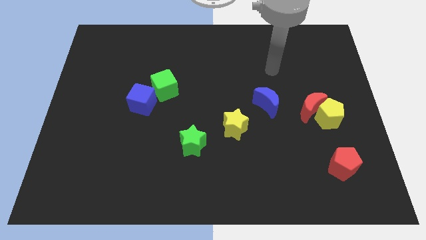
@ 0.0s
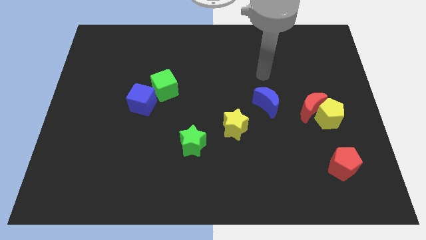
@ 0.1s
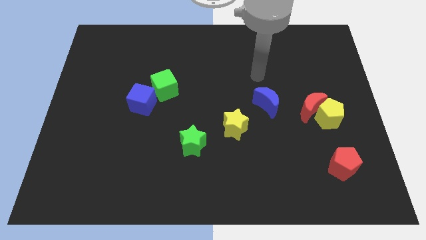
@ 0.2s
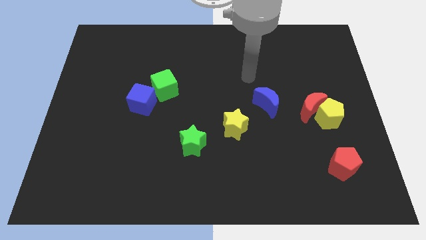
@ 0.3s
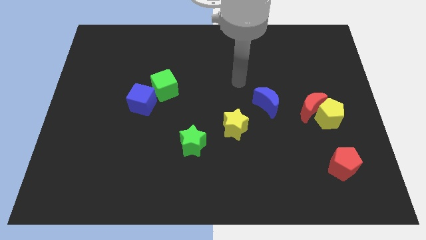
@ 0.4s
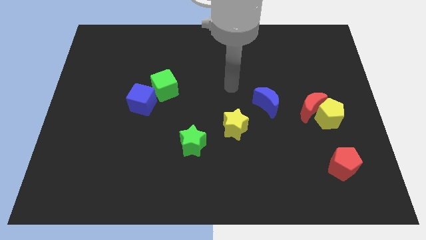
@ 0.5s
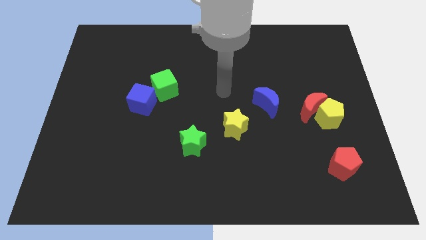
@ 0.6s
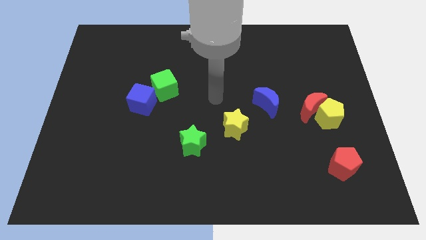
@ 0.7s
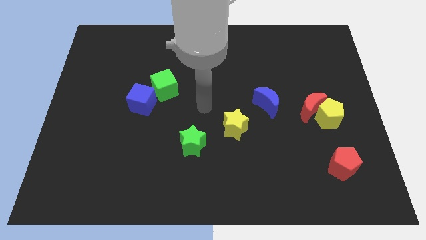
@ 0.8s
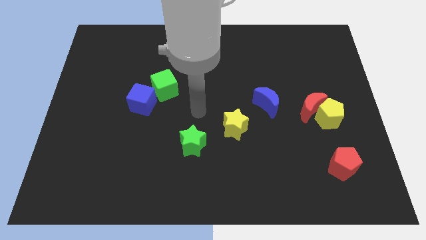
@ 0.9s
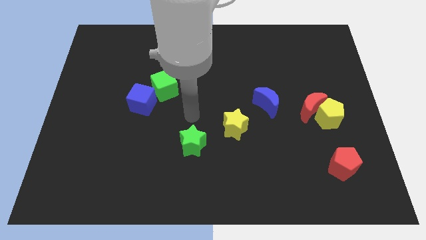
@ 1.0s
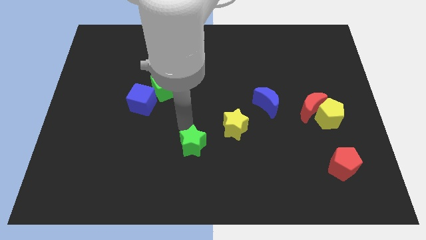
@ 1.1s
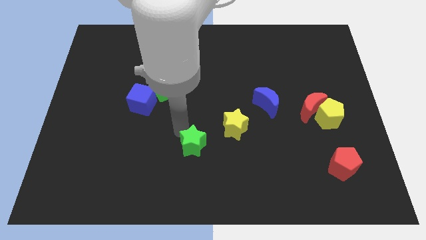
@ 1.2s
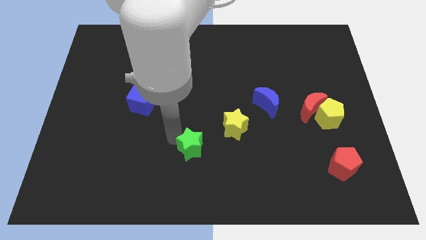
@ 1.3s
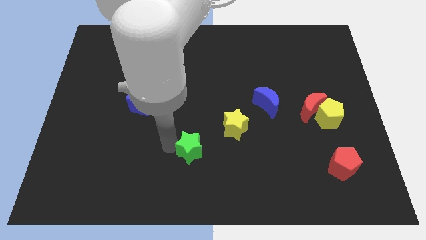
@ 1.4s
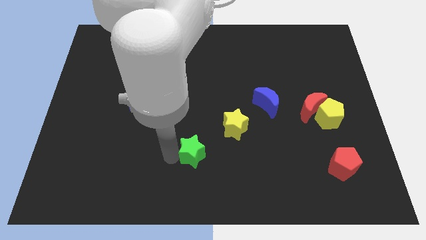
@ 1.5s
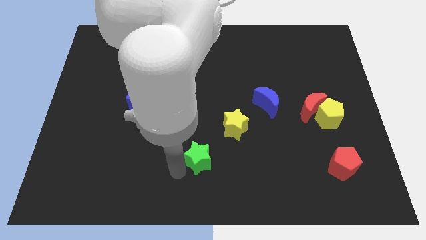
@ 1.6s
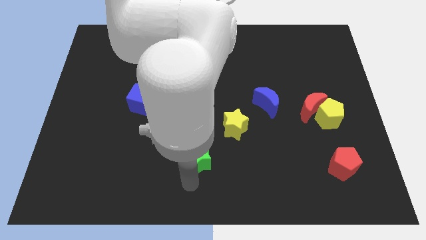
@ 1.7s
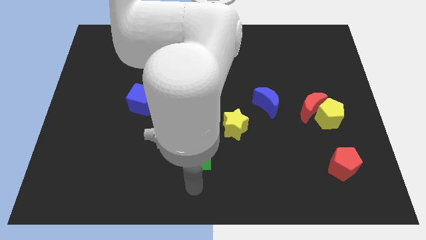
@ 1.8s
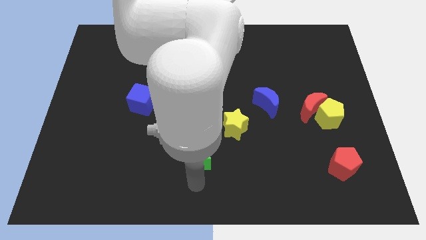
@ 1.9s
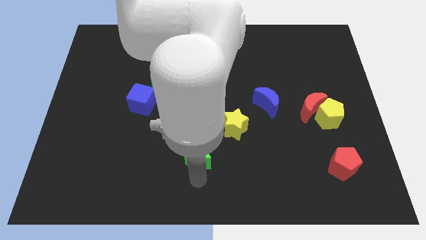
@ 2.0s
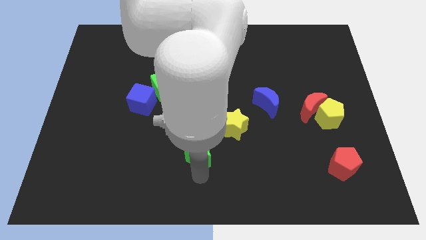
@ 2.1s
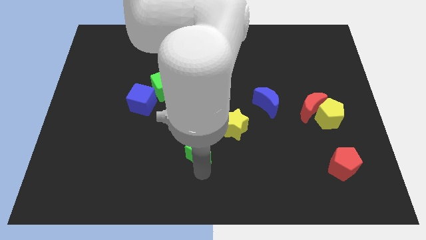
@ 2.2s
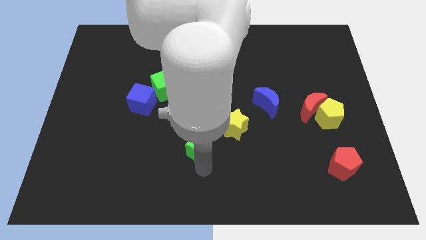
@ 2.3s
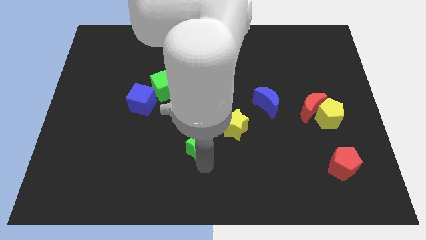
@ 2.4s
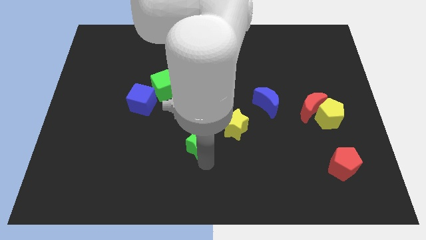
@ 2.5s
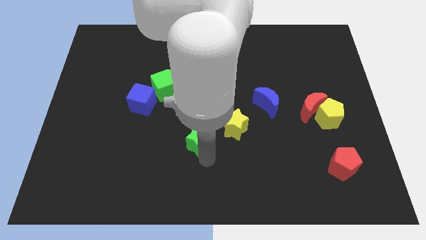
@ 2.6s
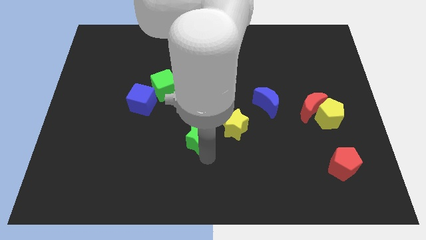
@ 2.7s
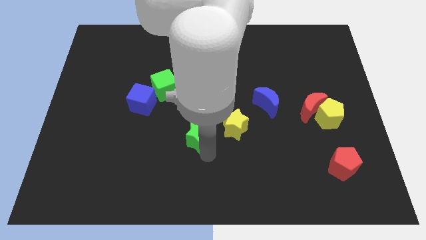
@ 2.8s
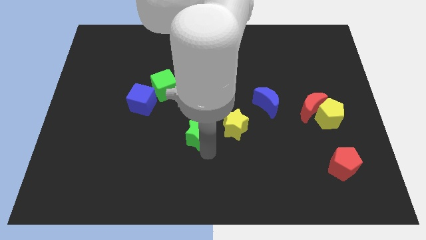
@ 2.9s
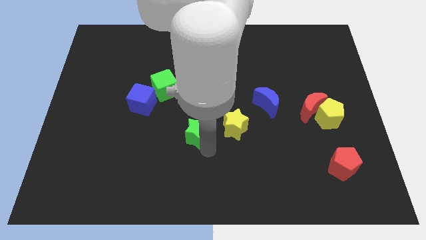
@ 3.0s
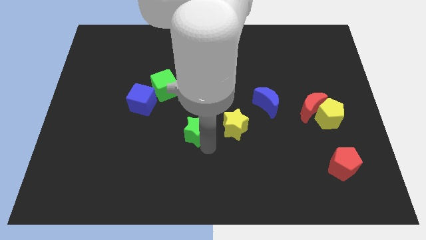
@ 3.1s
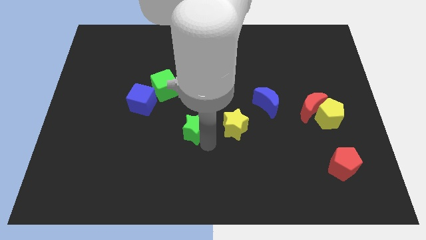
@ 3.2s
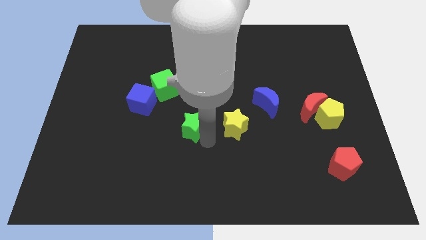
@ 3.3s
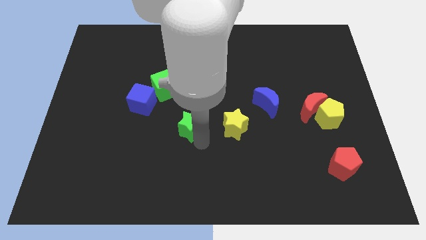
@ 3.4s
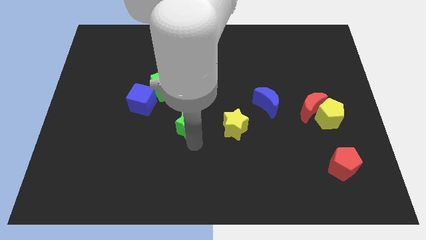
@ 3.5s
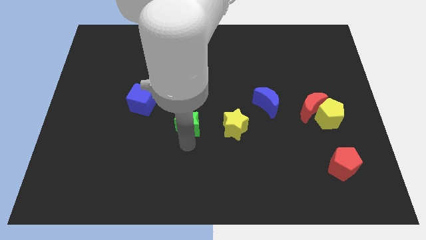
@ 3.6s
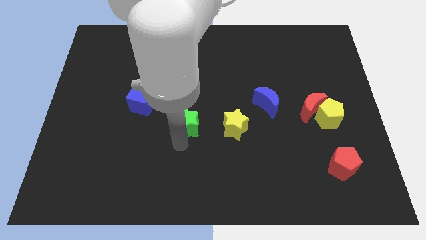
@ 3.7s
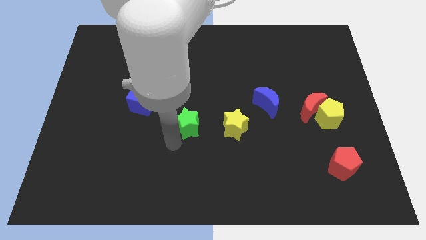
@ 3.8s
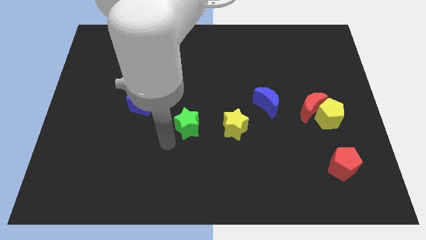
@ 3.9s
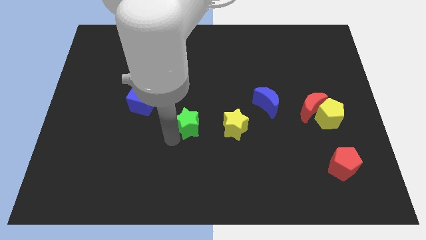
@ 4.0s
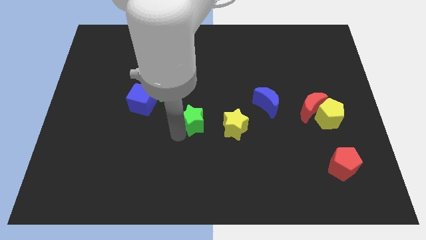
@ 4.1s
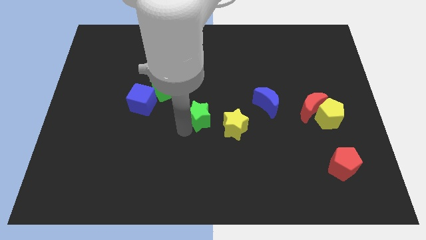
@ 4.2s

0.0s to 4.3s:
put the green star to the top left of the yellow star

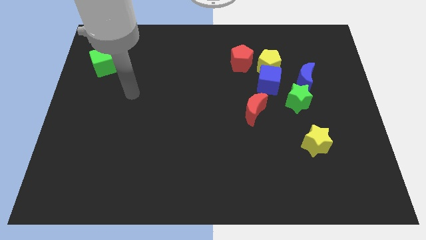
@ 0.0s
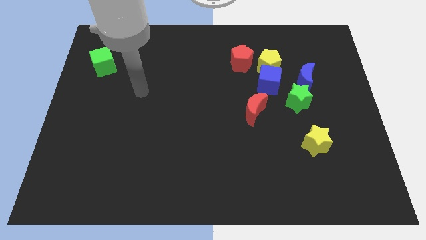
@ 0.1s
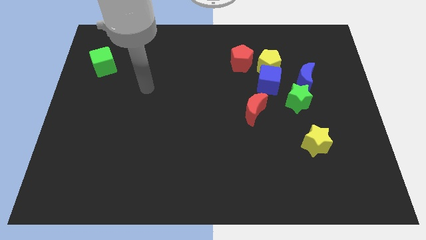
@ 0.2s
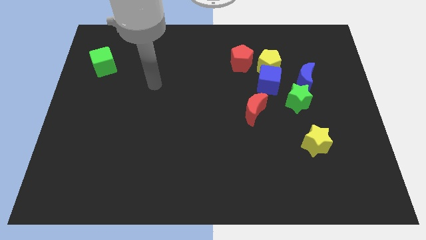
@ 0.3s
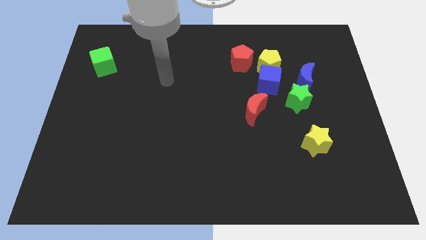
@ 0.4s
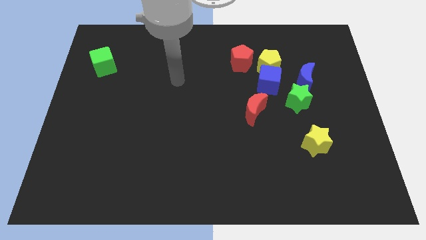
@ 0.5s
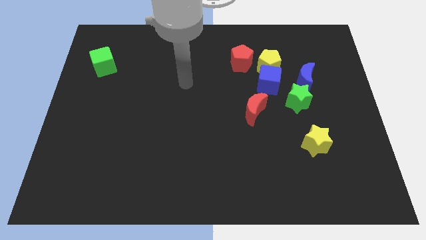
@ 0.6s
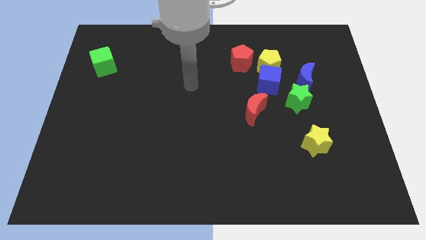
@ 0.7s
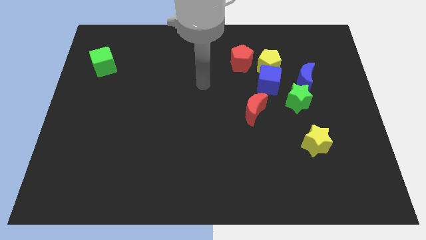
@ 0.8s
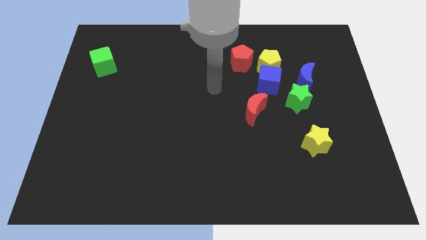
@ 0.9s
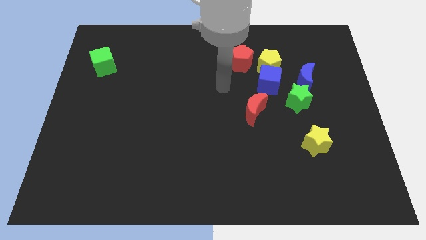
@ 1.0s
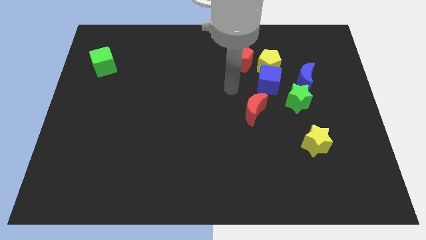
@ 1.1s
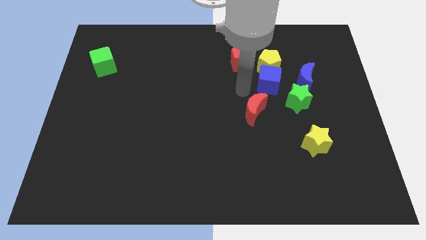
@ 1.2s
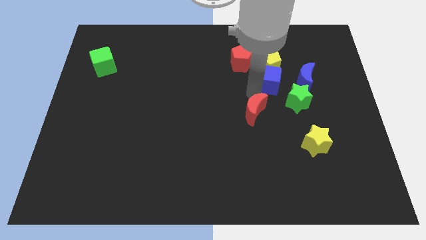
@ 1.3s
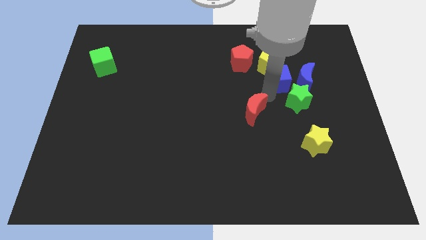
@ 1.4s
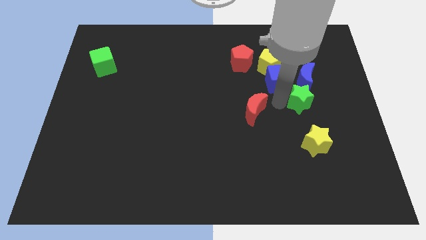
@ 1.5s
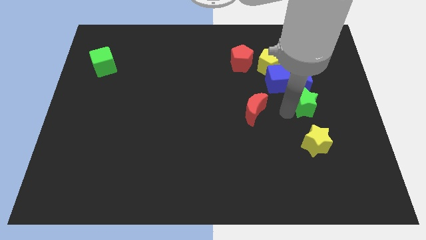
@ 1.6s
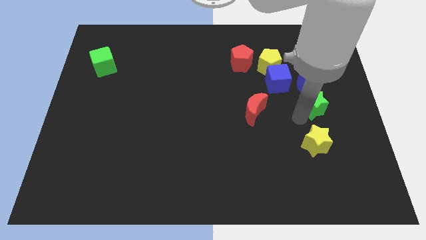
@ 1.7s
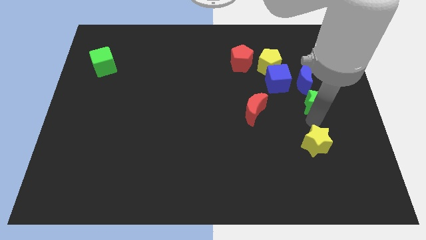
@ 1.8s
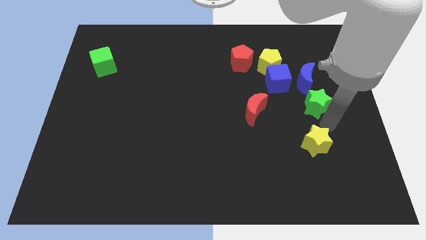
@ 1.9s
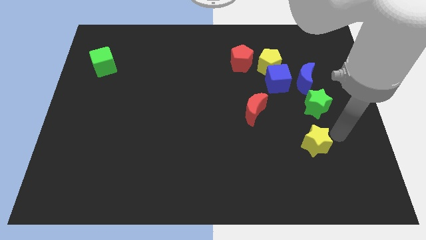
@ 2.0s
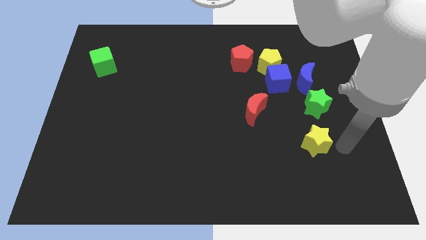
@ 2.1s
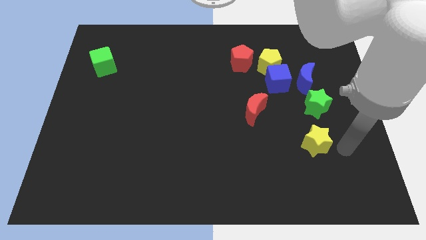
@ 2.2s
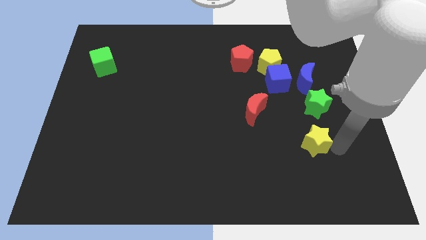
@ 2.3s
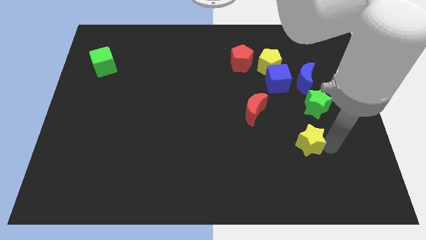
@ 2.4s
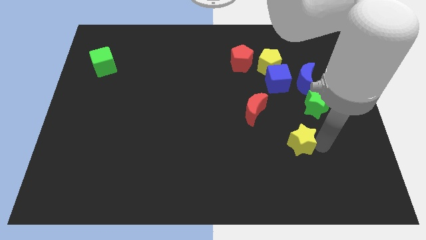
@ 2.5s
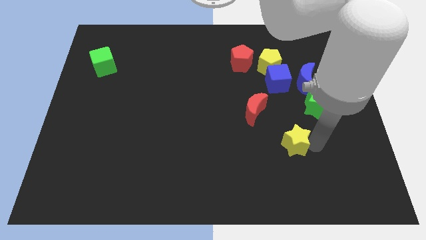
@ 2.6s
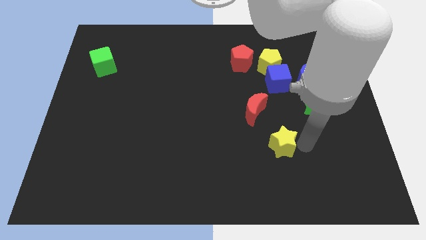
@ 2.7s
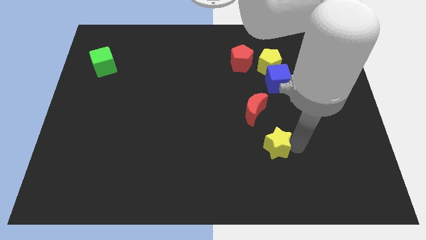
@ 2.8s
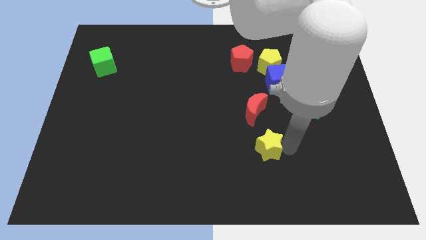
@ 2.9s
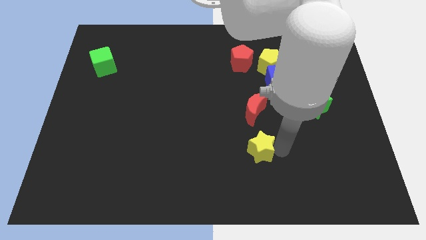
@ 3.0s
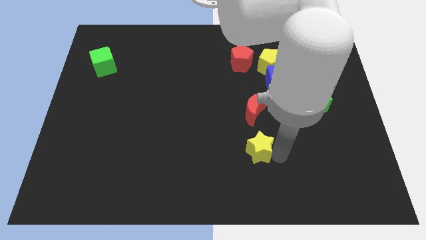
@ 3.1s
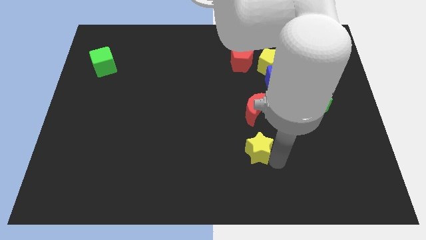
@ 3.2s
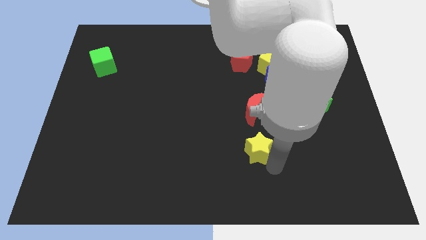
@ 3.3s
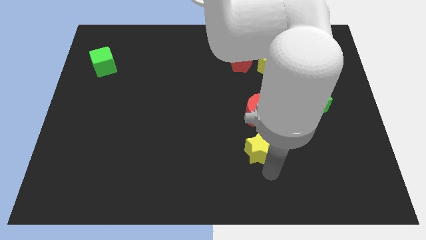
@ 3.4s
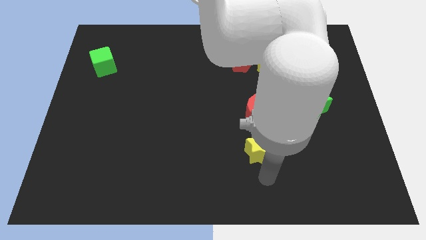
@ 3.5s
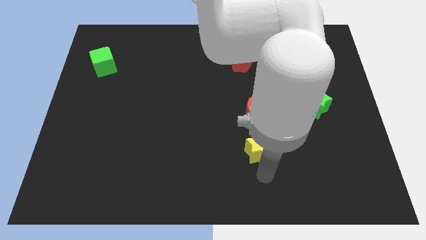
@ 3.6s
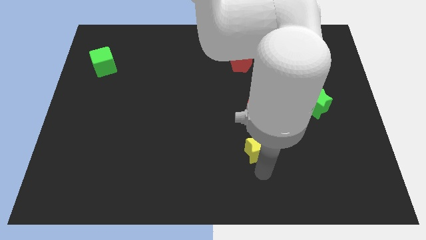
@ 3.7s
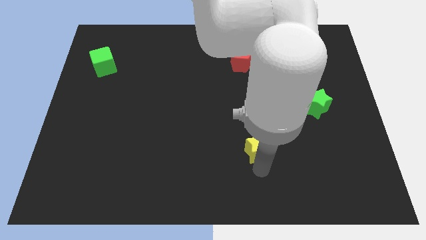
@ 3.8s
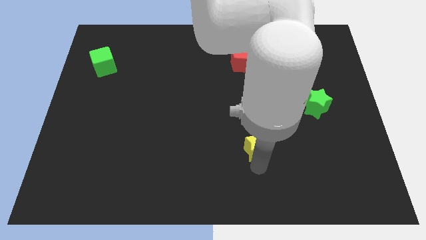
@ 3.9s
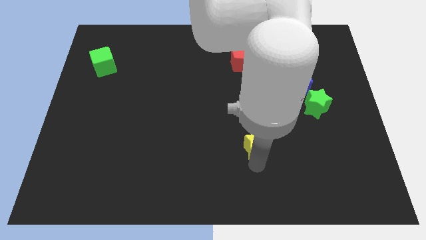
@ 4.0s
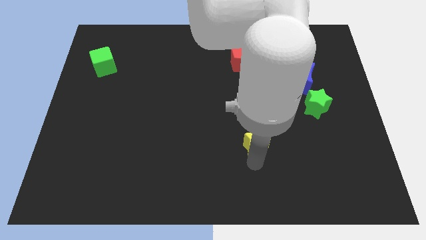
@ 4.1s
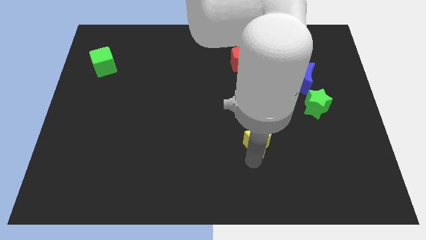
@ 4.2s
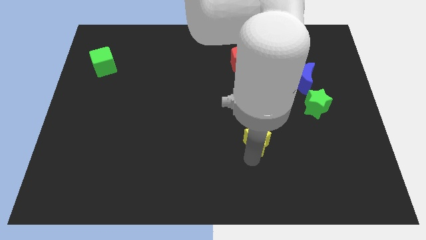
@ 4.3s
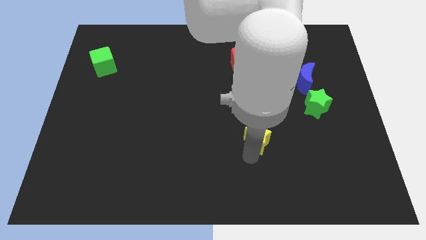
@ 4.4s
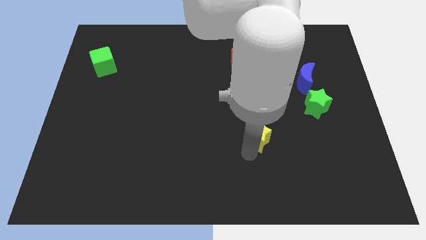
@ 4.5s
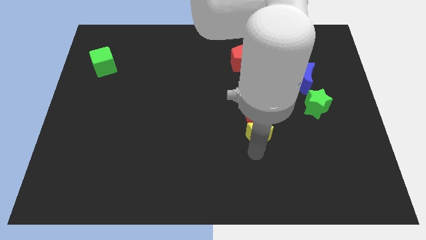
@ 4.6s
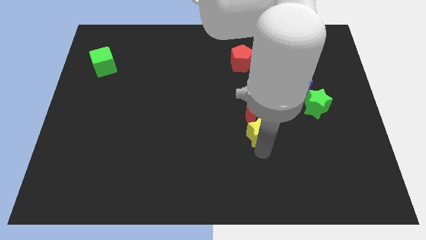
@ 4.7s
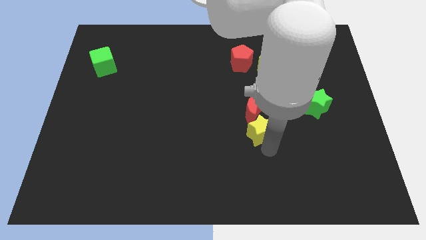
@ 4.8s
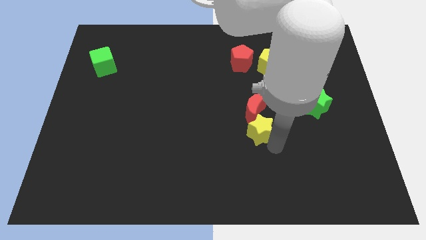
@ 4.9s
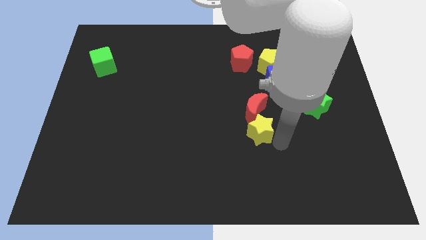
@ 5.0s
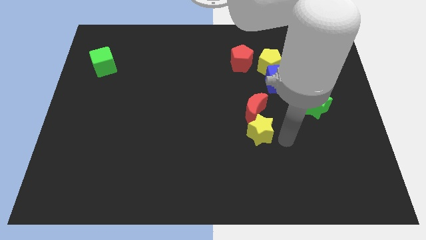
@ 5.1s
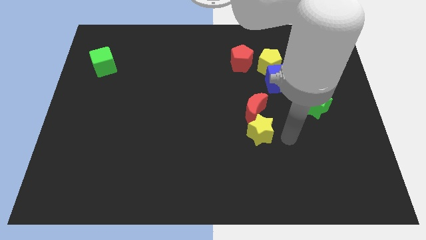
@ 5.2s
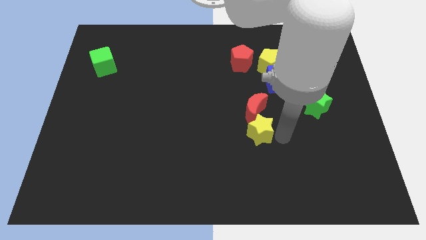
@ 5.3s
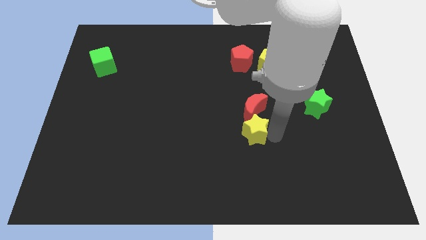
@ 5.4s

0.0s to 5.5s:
push the yellow star to the bottom left side of the red moon
